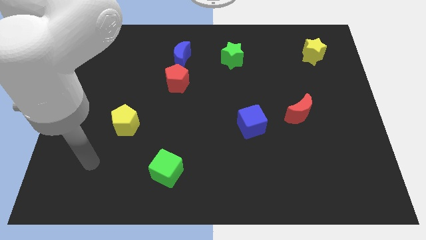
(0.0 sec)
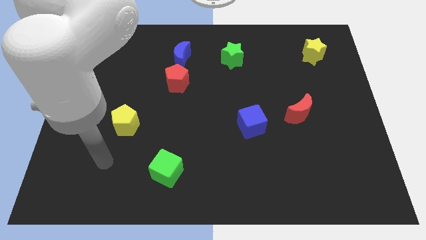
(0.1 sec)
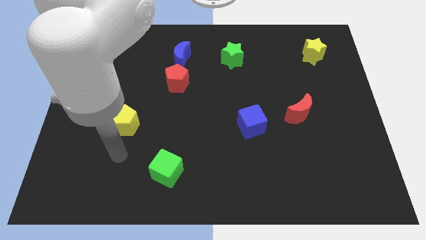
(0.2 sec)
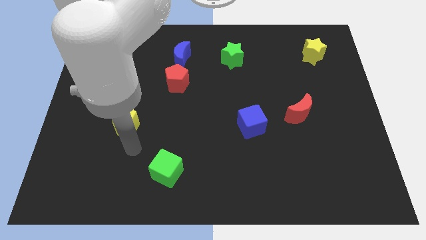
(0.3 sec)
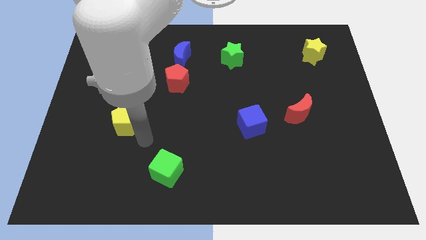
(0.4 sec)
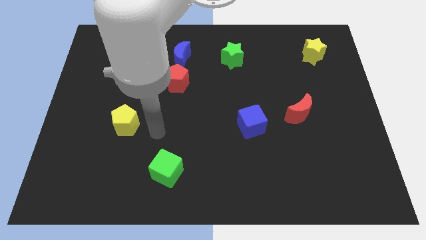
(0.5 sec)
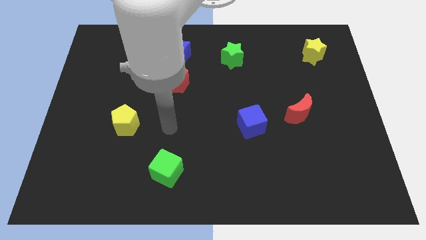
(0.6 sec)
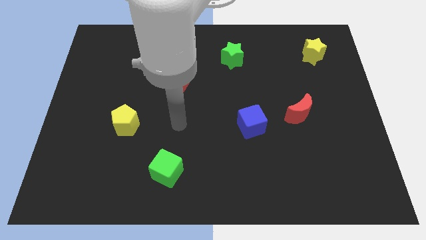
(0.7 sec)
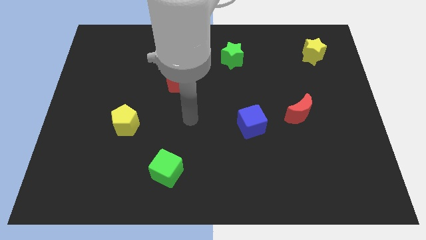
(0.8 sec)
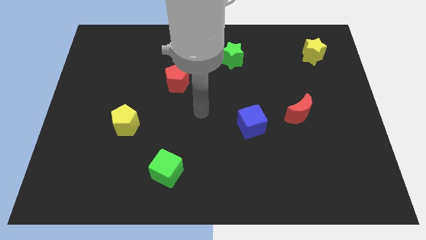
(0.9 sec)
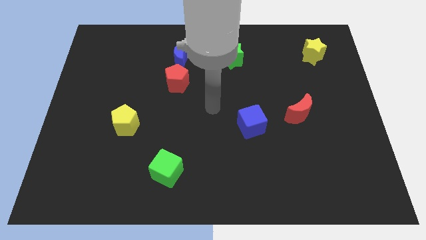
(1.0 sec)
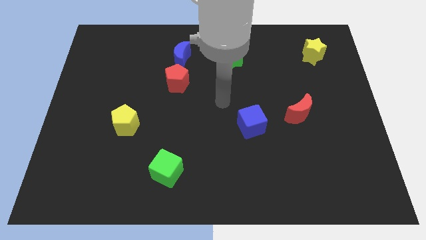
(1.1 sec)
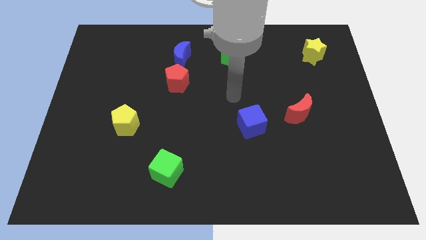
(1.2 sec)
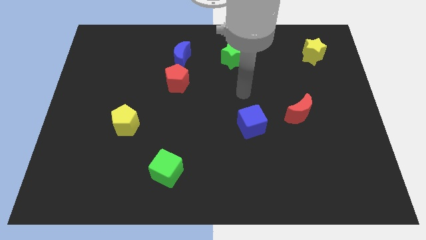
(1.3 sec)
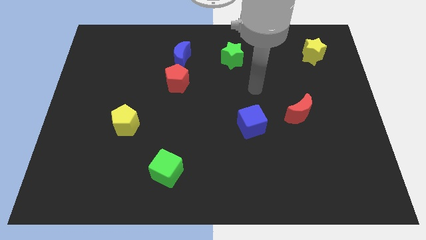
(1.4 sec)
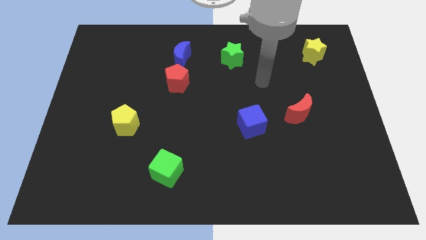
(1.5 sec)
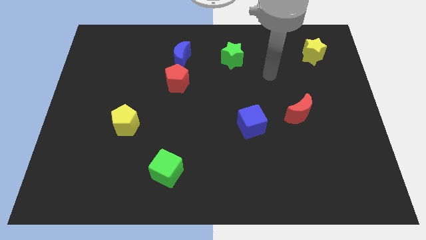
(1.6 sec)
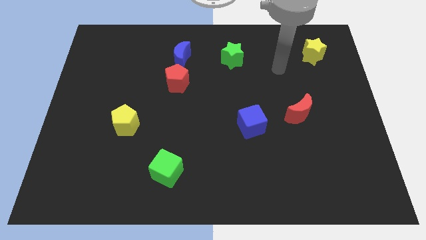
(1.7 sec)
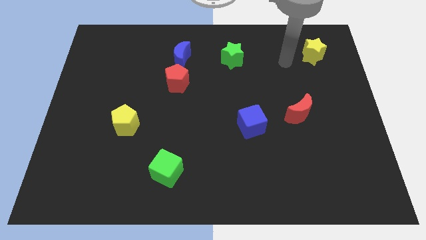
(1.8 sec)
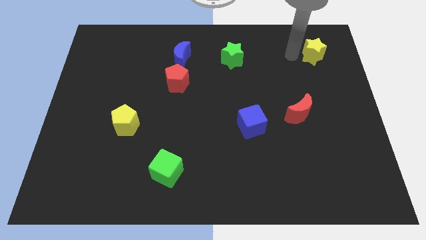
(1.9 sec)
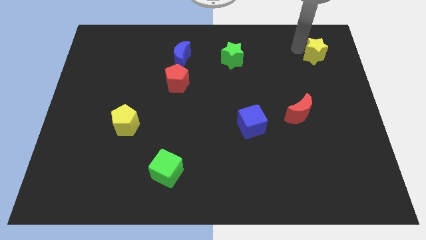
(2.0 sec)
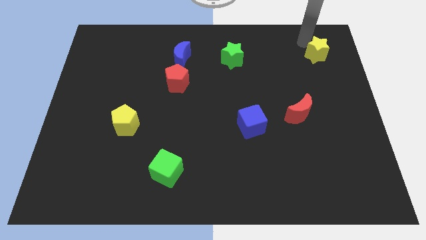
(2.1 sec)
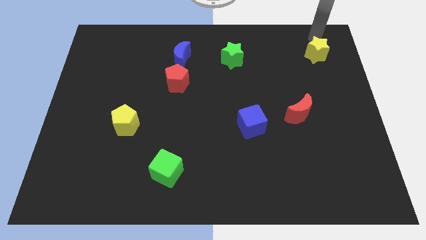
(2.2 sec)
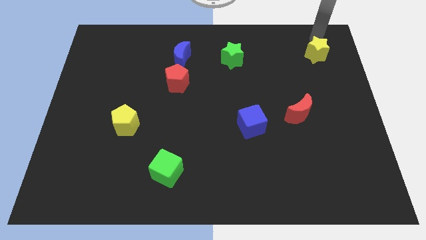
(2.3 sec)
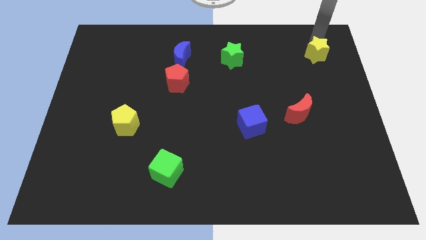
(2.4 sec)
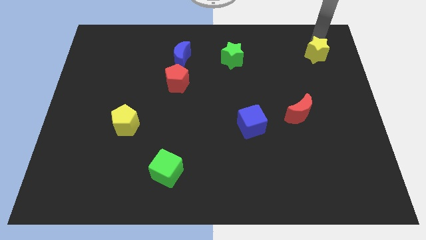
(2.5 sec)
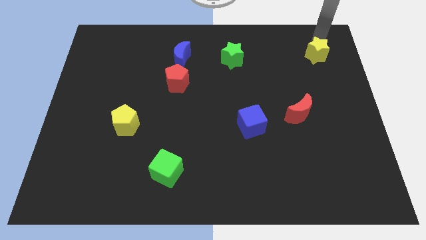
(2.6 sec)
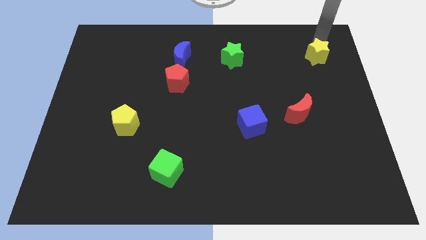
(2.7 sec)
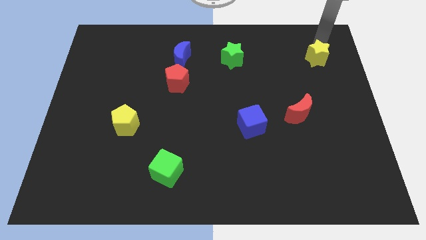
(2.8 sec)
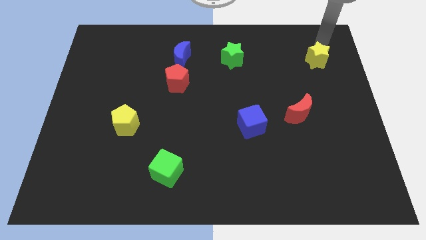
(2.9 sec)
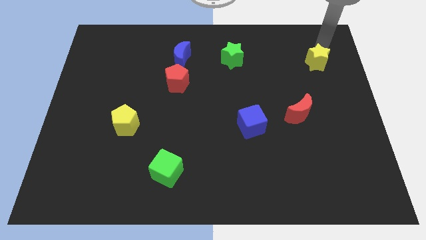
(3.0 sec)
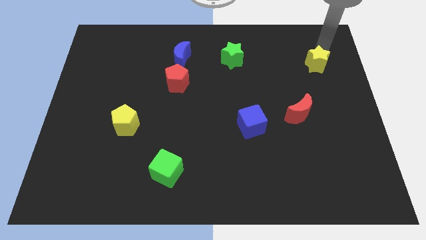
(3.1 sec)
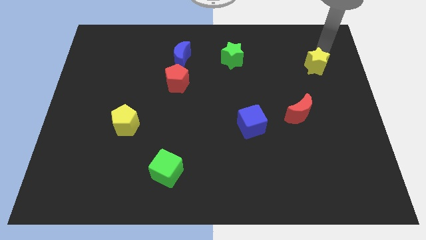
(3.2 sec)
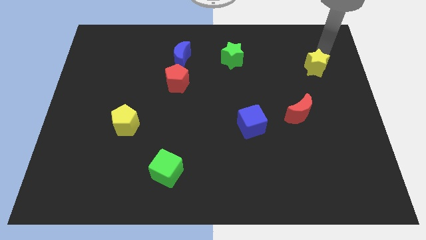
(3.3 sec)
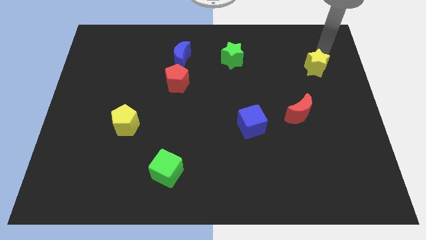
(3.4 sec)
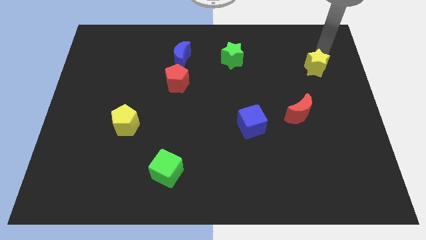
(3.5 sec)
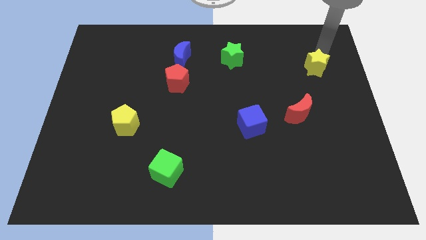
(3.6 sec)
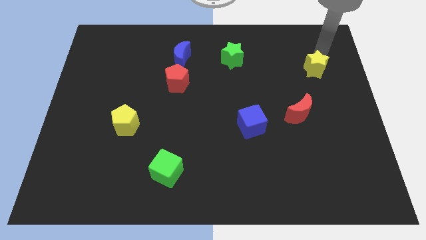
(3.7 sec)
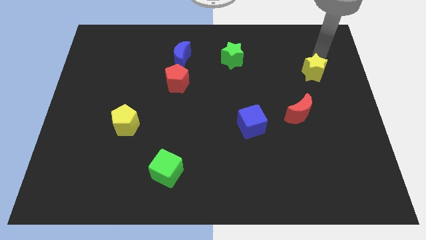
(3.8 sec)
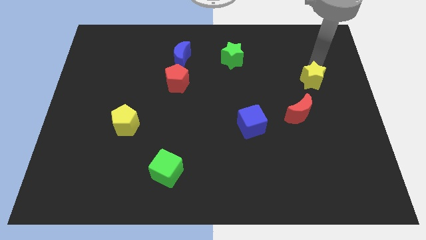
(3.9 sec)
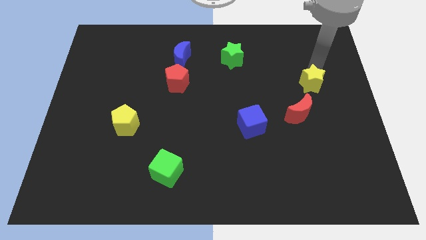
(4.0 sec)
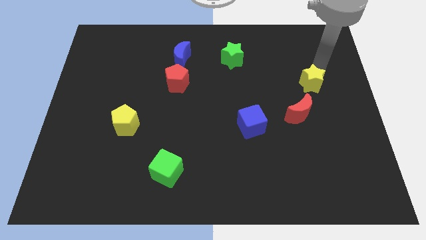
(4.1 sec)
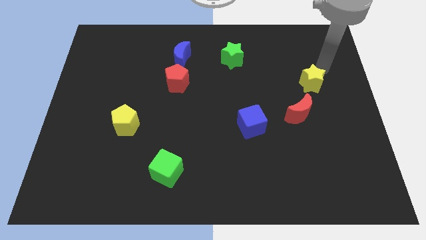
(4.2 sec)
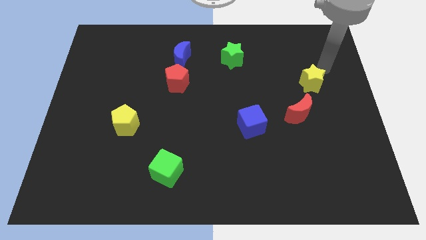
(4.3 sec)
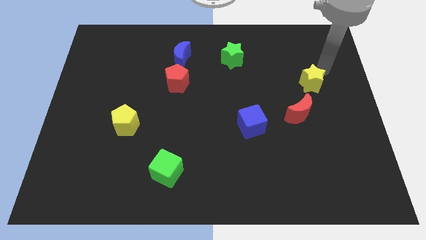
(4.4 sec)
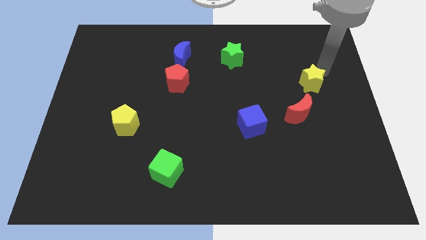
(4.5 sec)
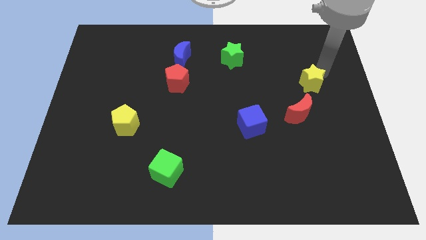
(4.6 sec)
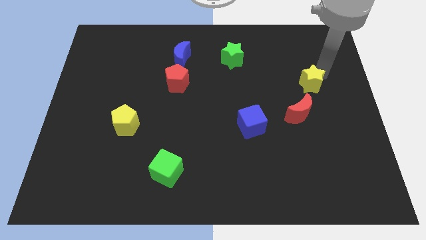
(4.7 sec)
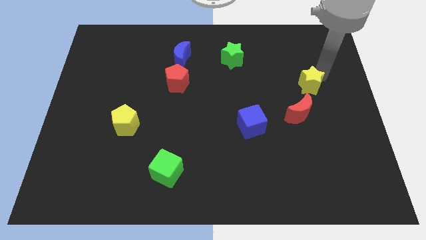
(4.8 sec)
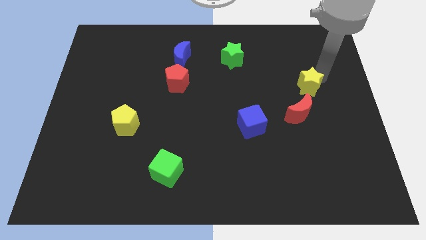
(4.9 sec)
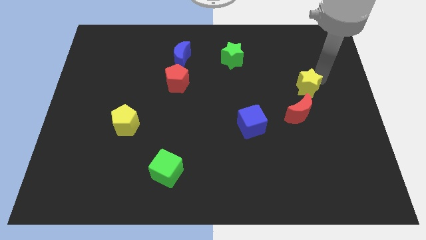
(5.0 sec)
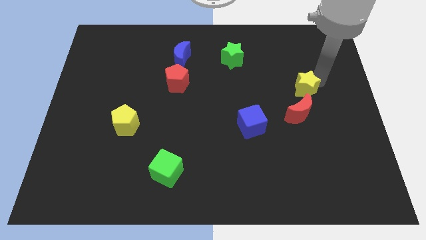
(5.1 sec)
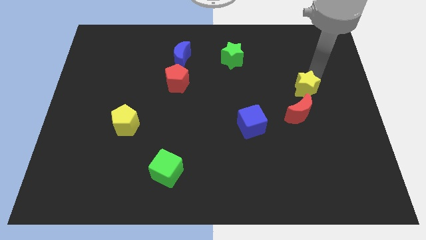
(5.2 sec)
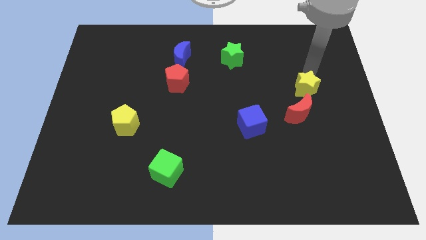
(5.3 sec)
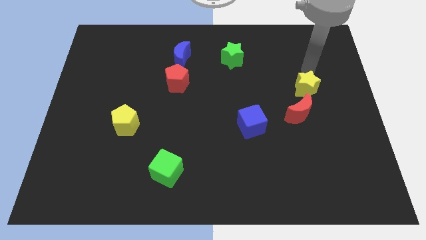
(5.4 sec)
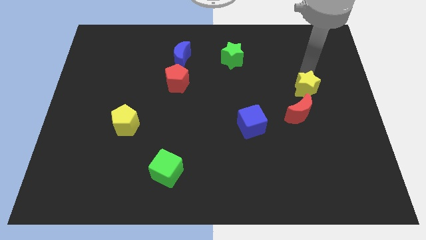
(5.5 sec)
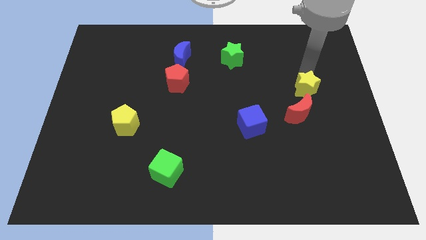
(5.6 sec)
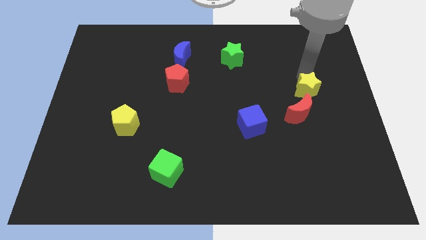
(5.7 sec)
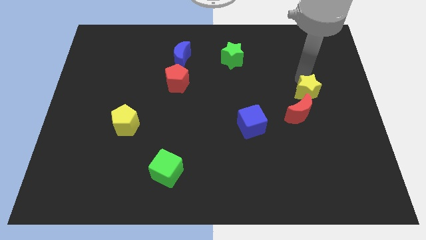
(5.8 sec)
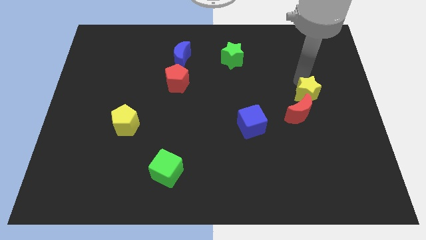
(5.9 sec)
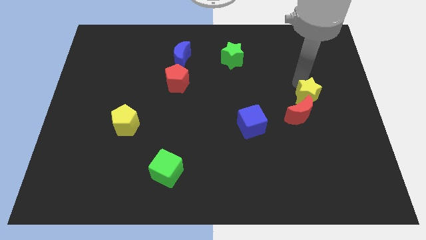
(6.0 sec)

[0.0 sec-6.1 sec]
put the yellow star towards the red moon

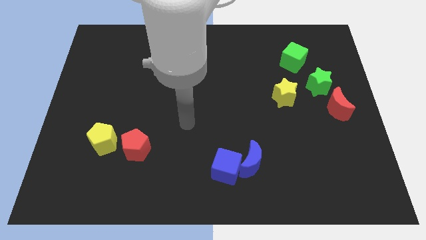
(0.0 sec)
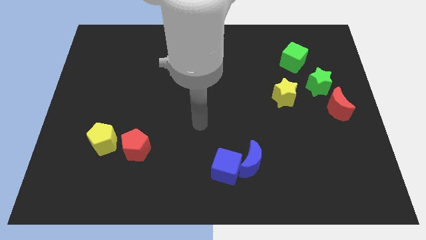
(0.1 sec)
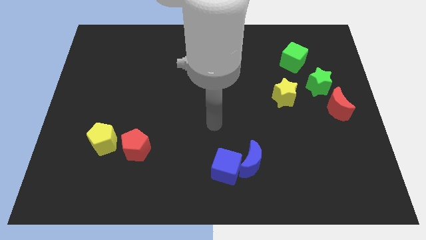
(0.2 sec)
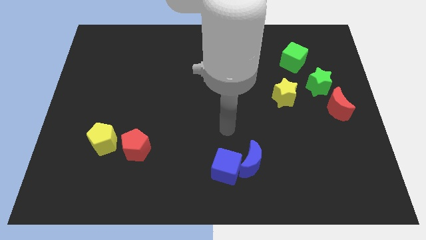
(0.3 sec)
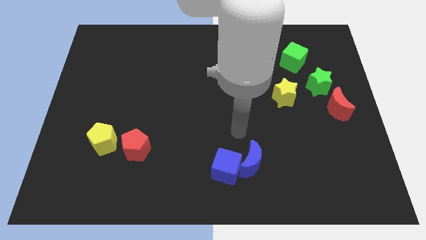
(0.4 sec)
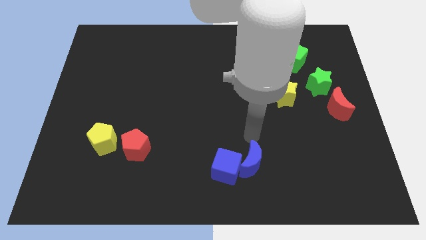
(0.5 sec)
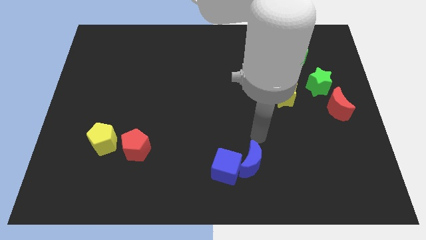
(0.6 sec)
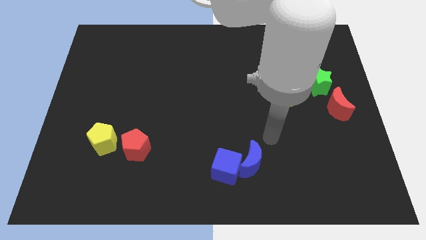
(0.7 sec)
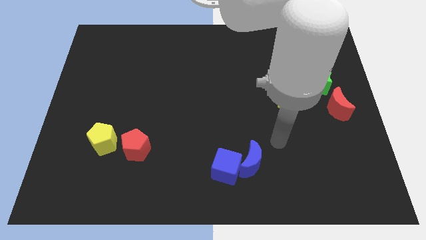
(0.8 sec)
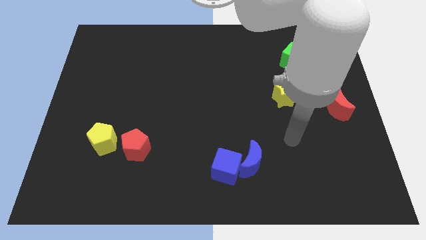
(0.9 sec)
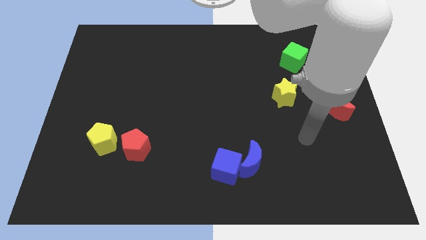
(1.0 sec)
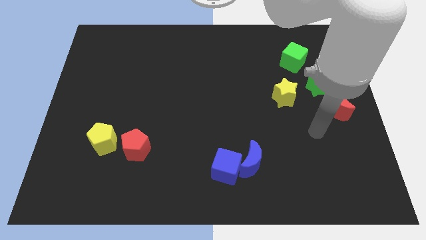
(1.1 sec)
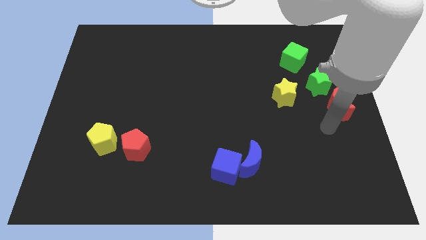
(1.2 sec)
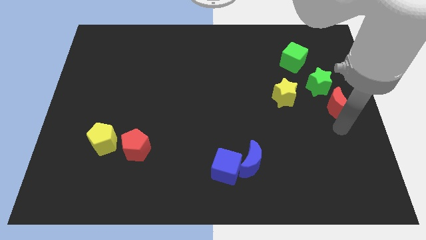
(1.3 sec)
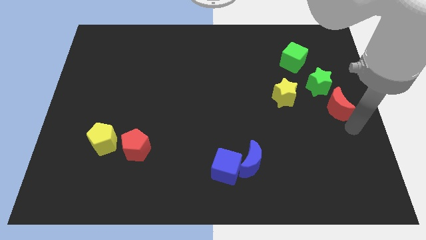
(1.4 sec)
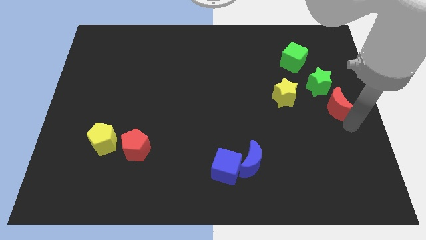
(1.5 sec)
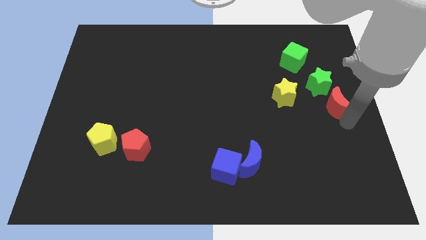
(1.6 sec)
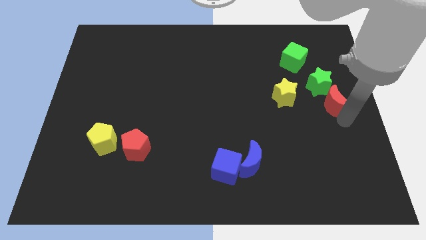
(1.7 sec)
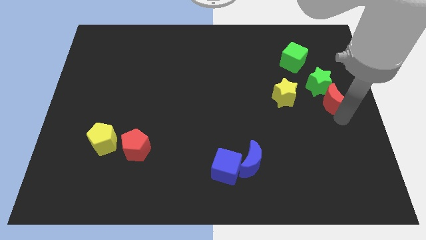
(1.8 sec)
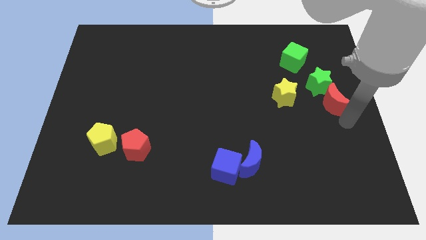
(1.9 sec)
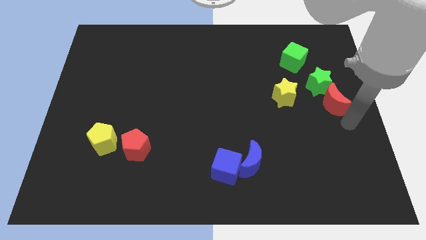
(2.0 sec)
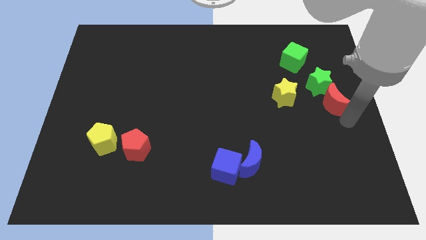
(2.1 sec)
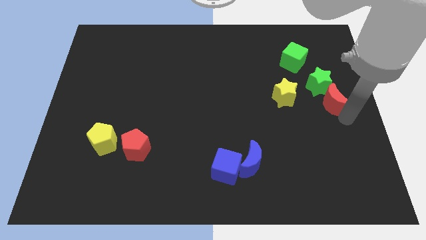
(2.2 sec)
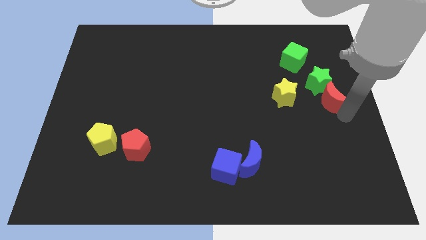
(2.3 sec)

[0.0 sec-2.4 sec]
move the red moon towards the green star
